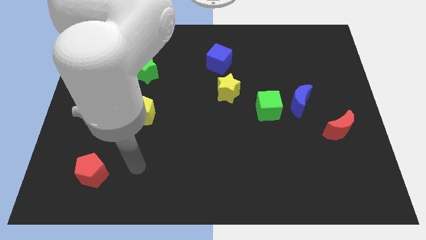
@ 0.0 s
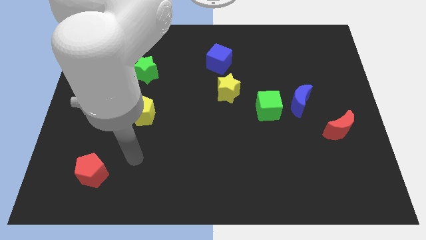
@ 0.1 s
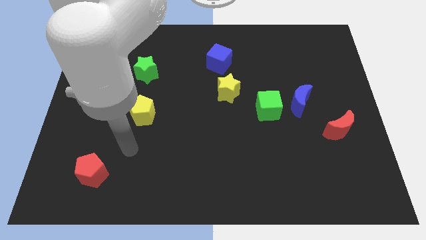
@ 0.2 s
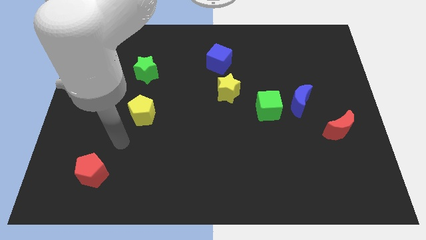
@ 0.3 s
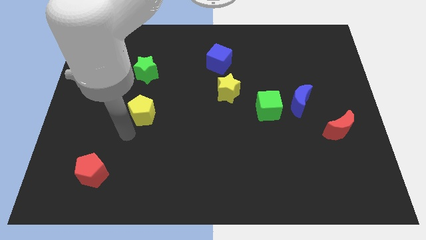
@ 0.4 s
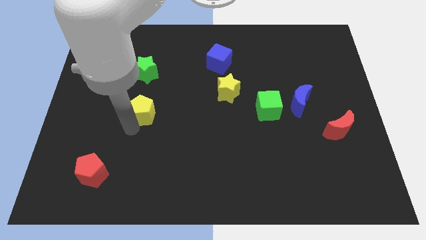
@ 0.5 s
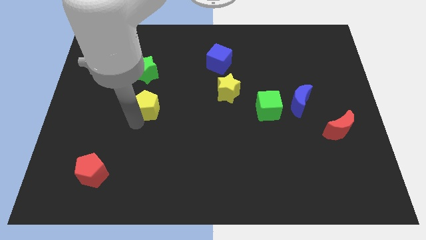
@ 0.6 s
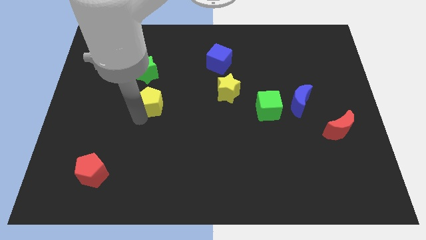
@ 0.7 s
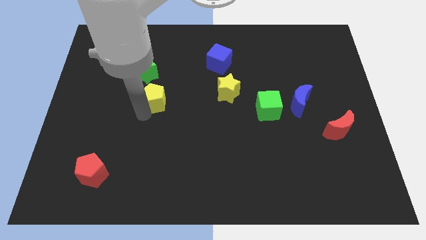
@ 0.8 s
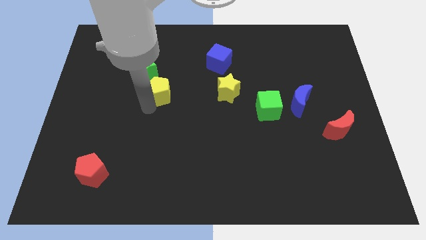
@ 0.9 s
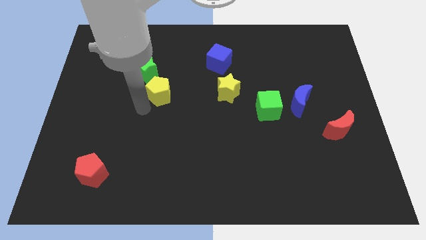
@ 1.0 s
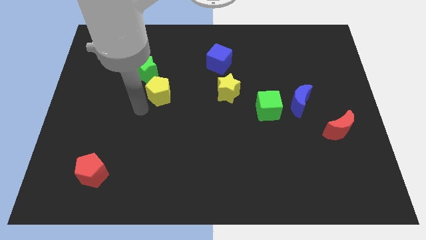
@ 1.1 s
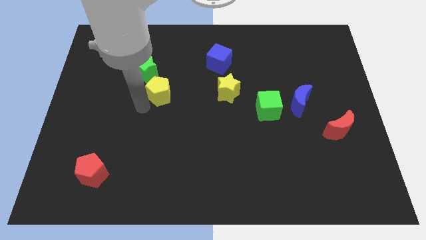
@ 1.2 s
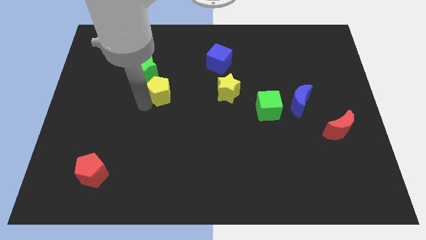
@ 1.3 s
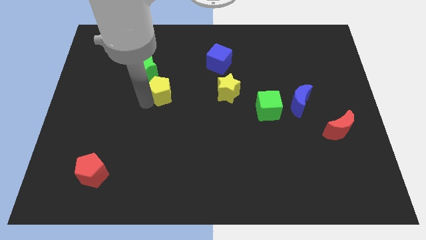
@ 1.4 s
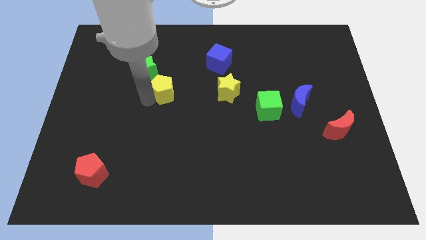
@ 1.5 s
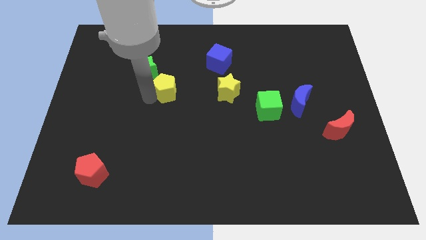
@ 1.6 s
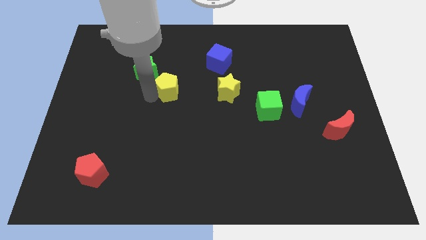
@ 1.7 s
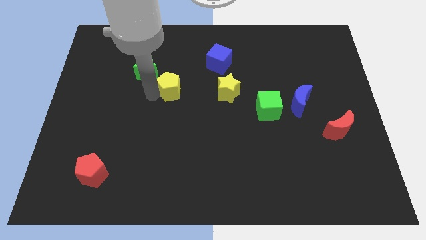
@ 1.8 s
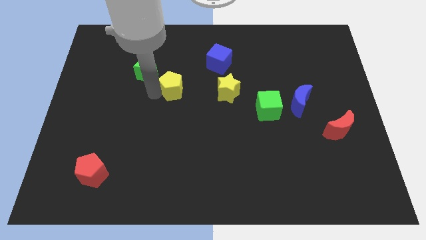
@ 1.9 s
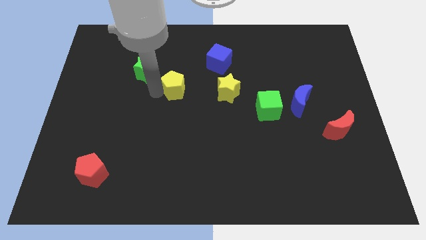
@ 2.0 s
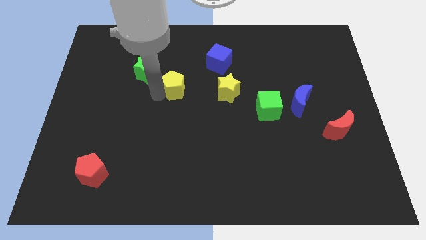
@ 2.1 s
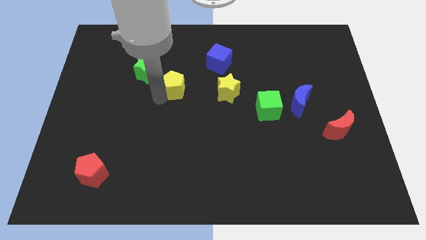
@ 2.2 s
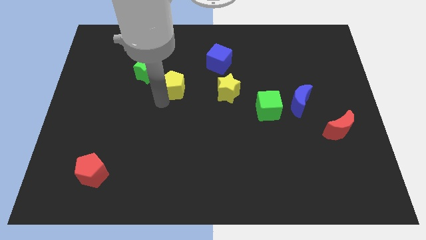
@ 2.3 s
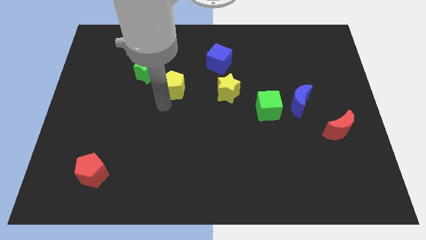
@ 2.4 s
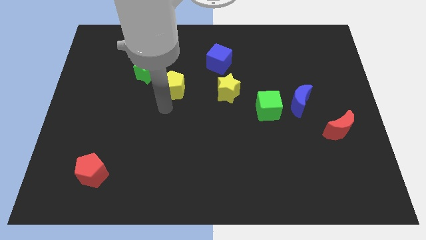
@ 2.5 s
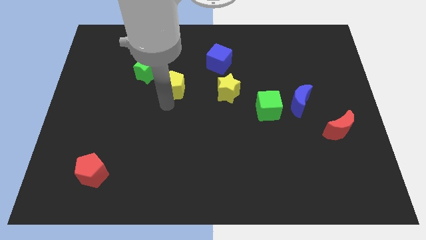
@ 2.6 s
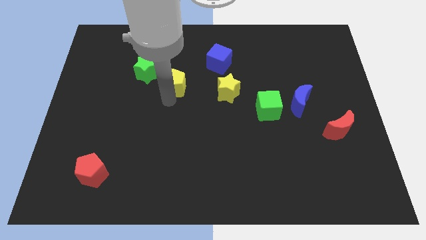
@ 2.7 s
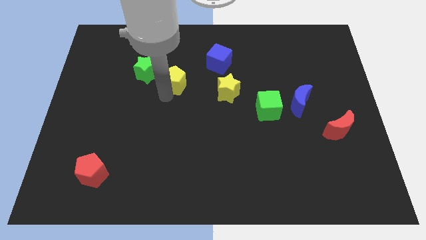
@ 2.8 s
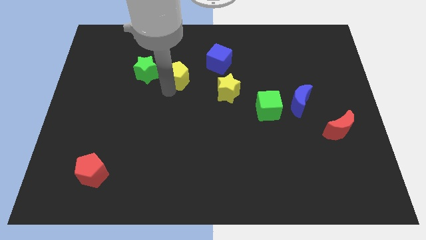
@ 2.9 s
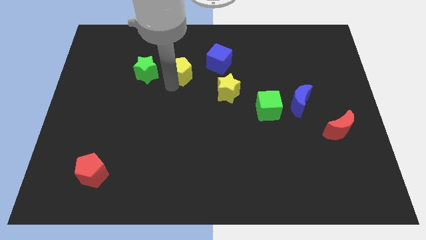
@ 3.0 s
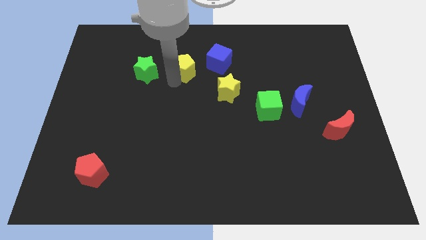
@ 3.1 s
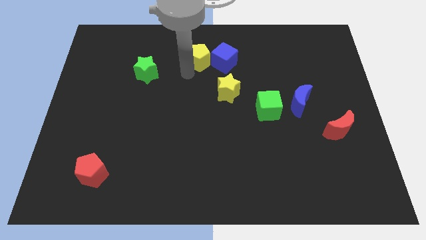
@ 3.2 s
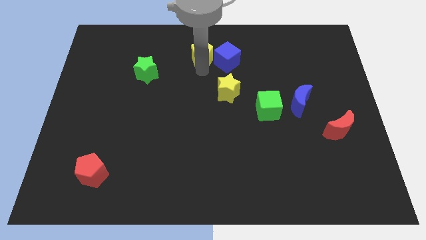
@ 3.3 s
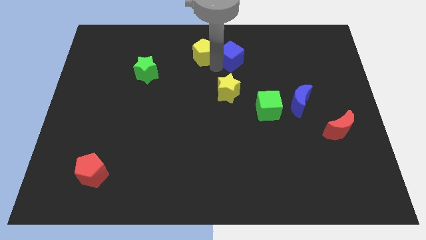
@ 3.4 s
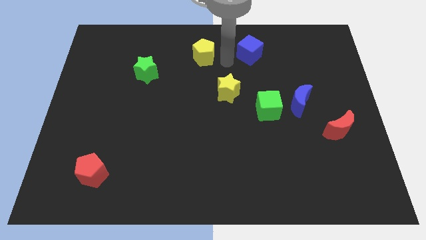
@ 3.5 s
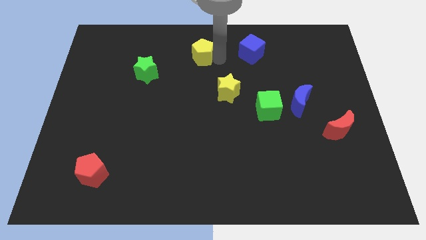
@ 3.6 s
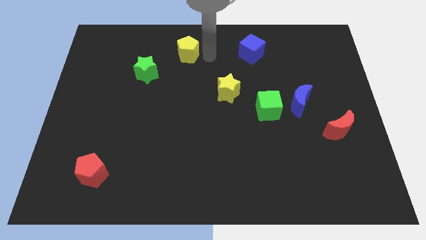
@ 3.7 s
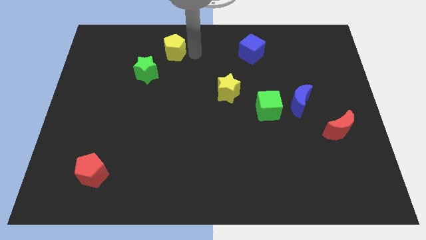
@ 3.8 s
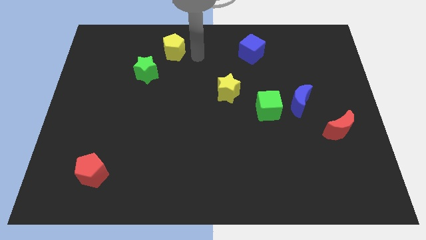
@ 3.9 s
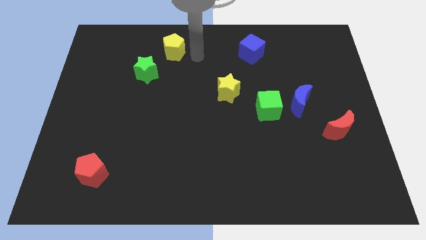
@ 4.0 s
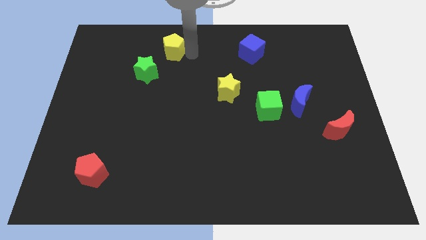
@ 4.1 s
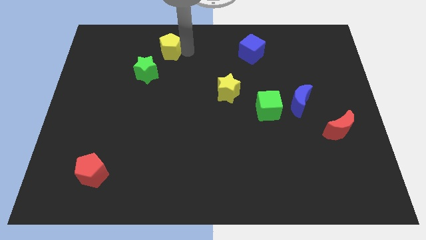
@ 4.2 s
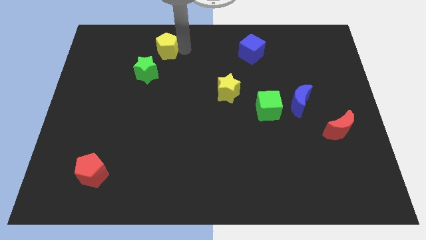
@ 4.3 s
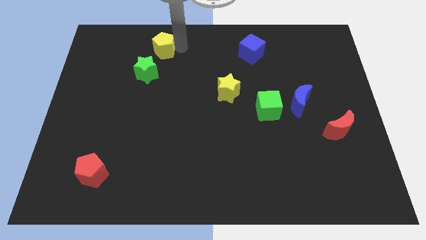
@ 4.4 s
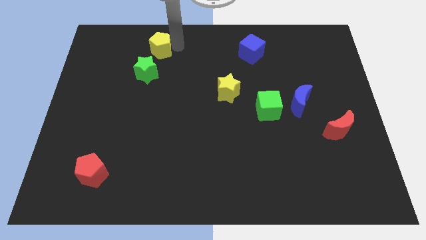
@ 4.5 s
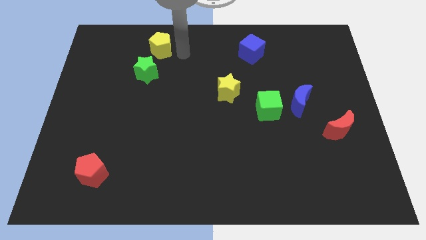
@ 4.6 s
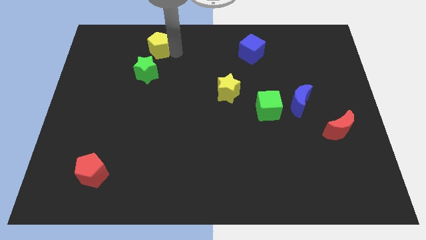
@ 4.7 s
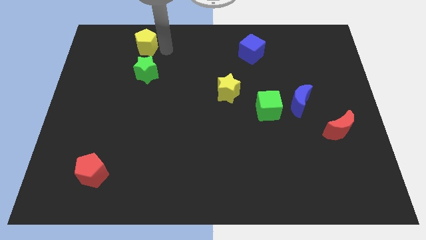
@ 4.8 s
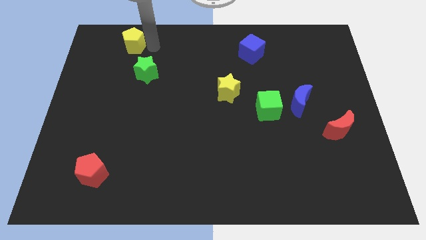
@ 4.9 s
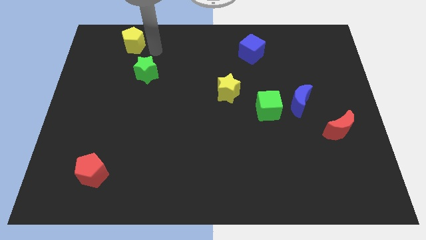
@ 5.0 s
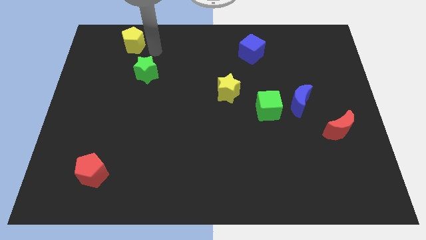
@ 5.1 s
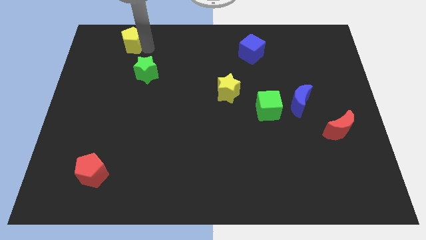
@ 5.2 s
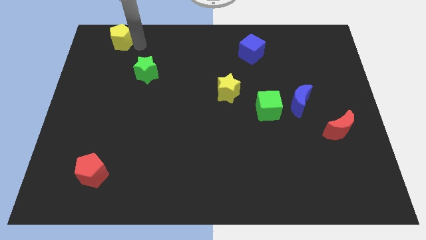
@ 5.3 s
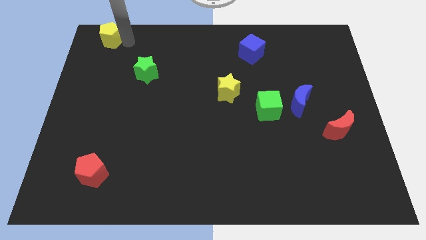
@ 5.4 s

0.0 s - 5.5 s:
put the yellow pentagon to the top left
